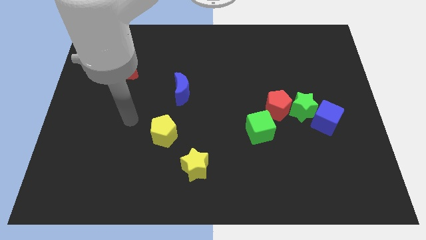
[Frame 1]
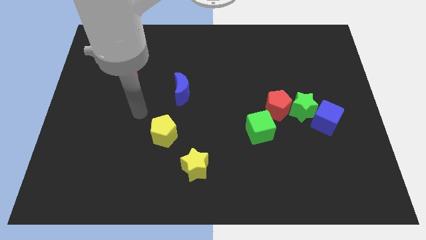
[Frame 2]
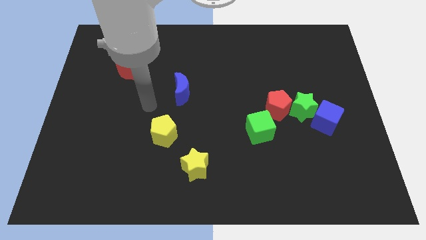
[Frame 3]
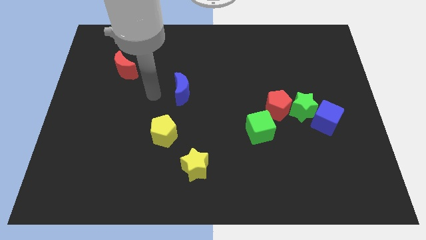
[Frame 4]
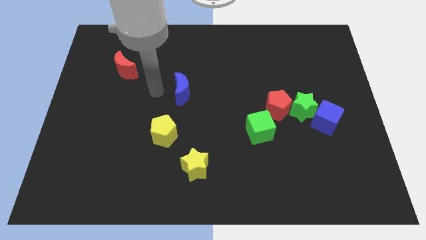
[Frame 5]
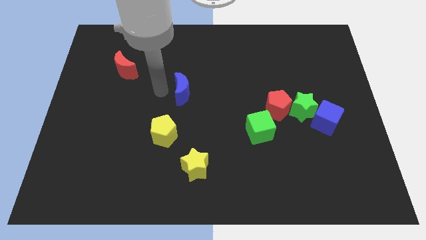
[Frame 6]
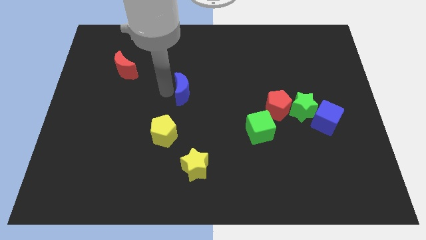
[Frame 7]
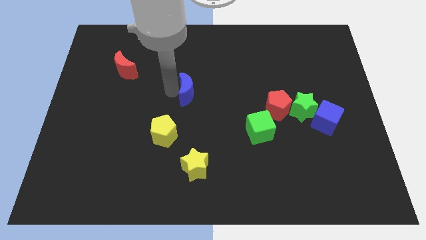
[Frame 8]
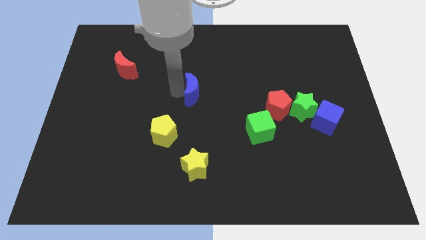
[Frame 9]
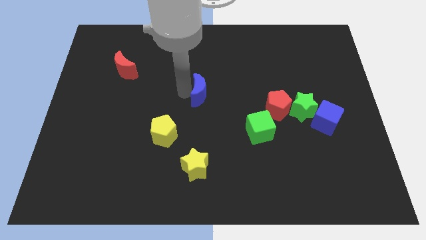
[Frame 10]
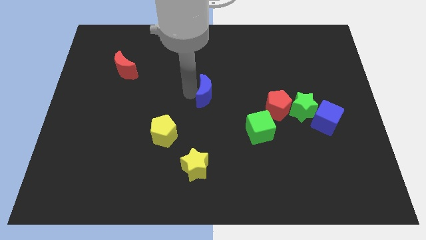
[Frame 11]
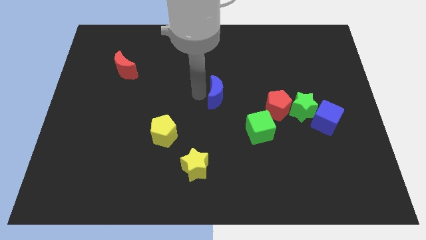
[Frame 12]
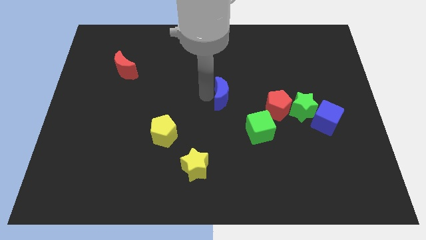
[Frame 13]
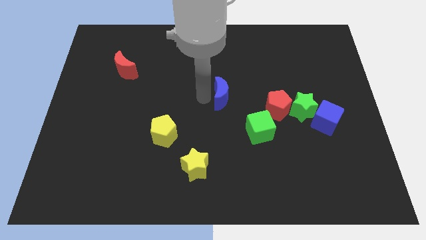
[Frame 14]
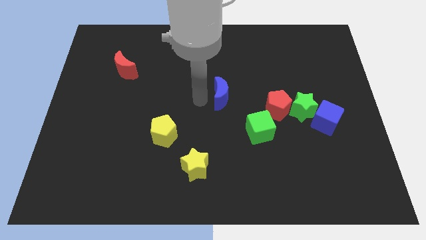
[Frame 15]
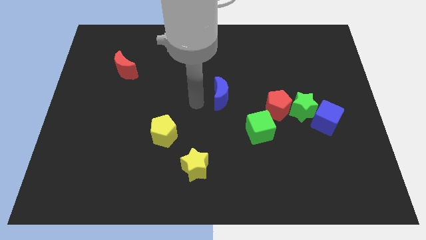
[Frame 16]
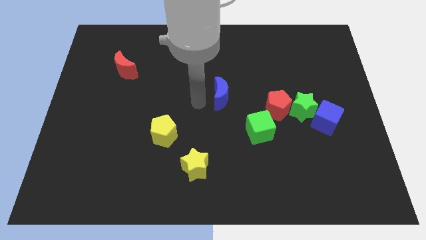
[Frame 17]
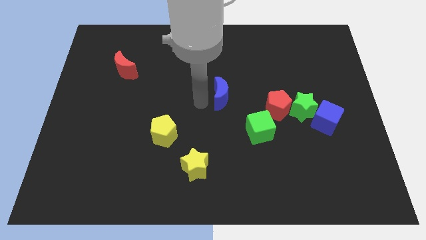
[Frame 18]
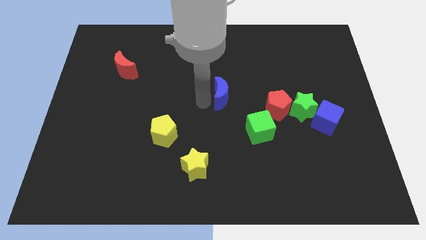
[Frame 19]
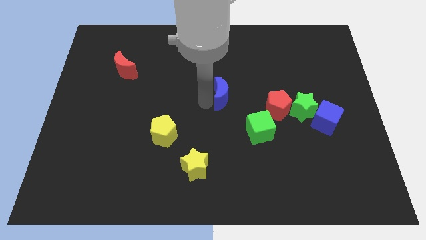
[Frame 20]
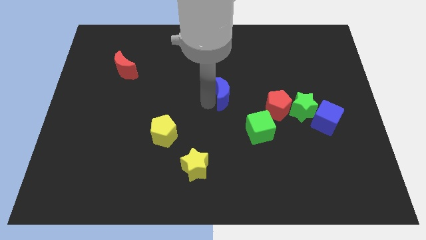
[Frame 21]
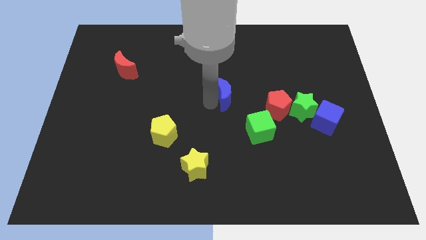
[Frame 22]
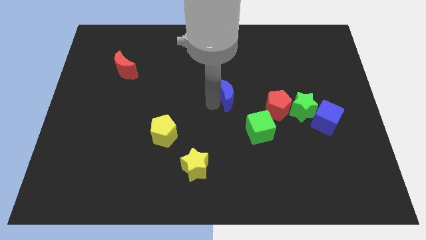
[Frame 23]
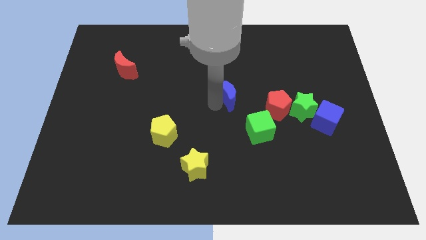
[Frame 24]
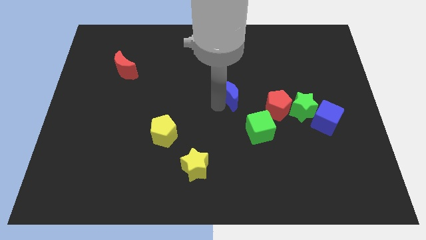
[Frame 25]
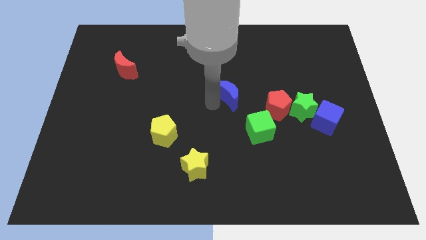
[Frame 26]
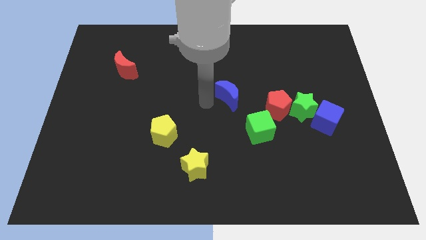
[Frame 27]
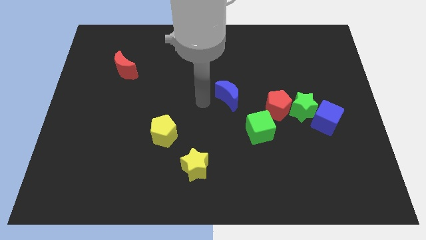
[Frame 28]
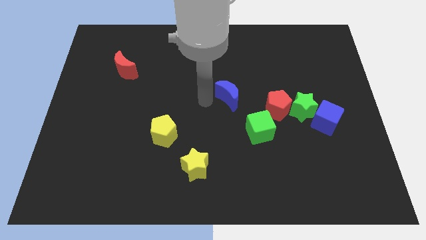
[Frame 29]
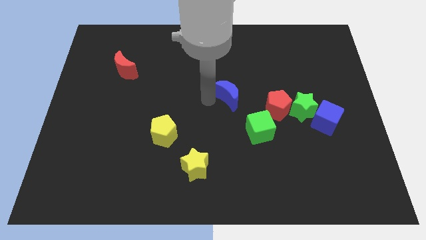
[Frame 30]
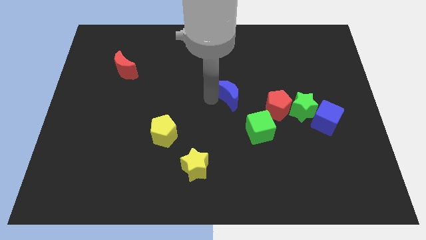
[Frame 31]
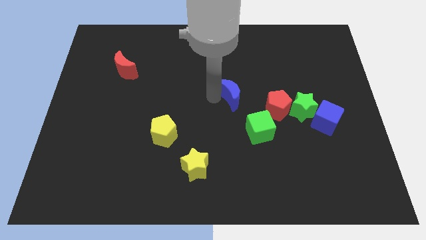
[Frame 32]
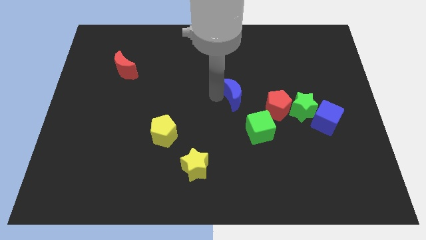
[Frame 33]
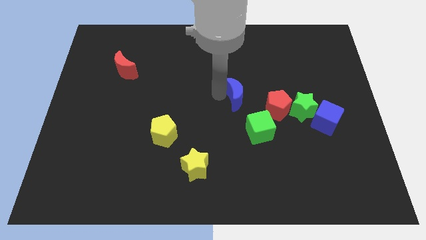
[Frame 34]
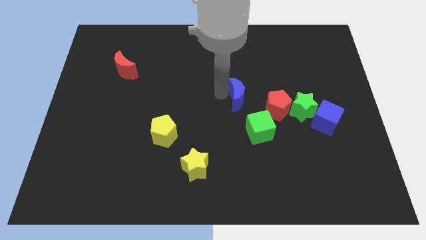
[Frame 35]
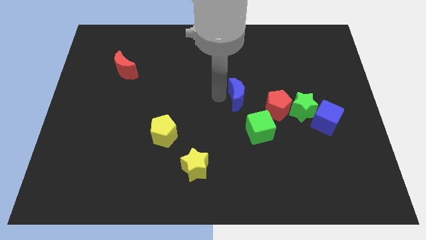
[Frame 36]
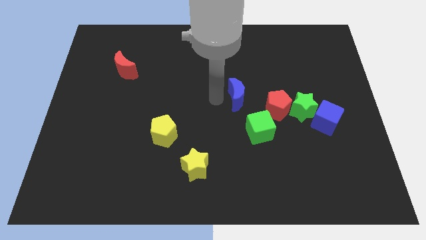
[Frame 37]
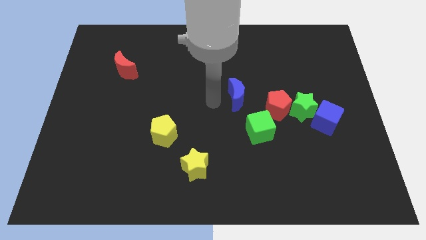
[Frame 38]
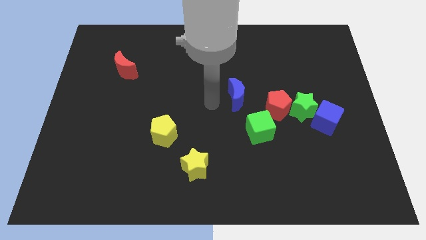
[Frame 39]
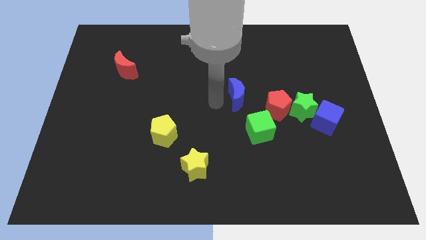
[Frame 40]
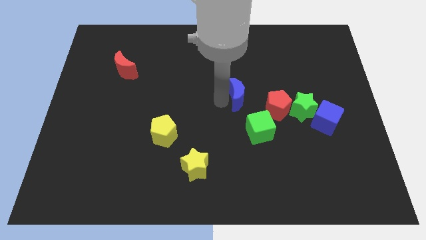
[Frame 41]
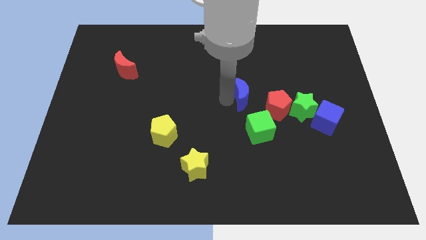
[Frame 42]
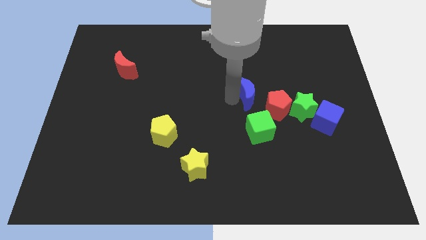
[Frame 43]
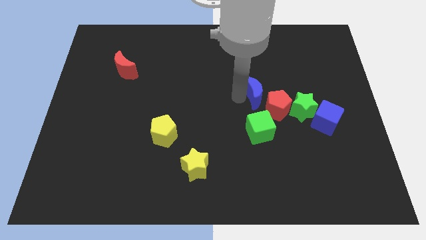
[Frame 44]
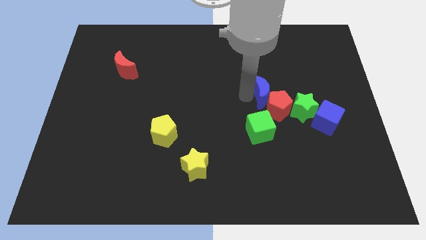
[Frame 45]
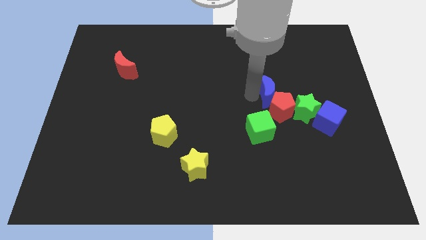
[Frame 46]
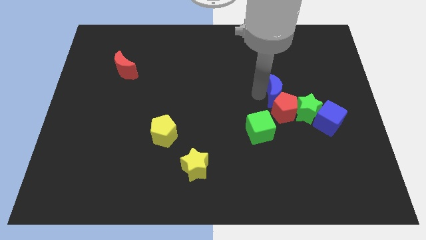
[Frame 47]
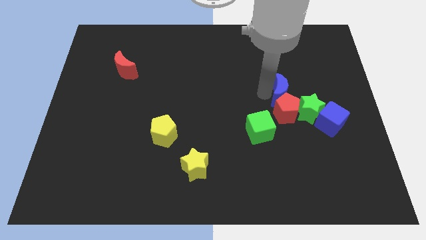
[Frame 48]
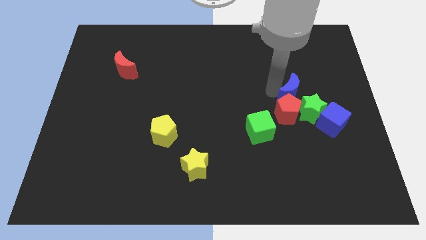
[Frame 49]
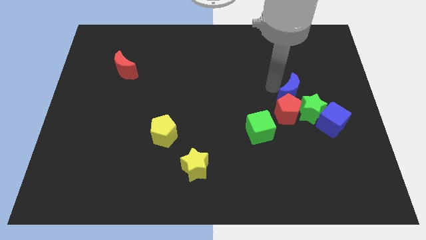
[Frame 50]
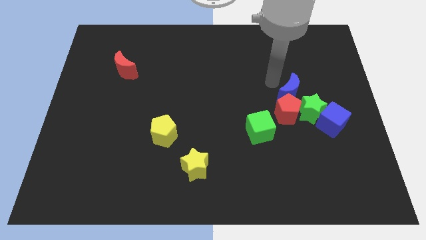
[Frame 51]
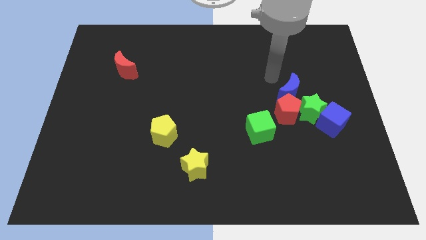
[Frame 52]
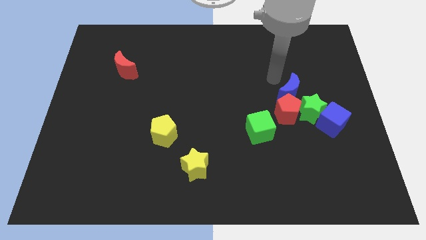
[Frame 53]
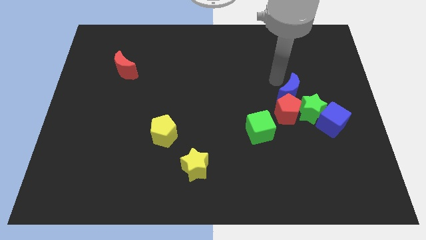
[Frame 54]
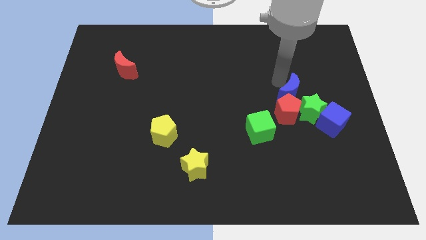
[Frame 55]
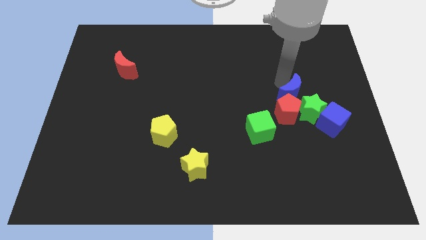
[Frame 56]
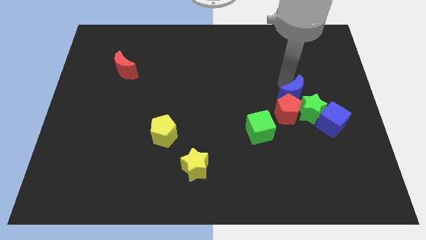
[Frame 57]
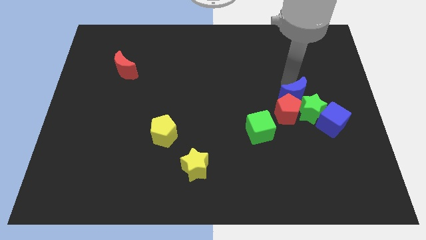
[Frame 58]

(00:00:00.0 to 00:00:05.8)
move the blue moon next to the green star

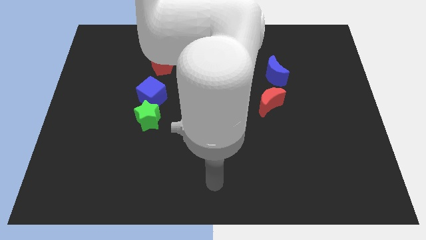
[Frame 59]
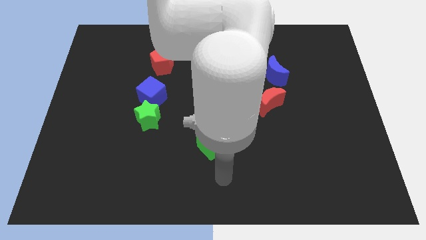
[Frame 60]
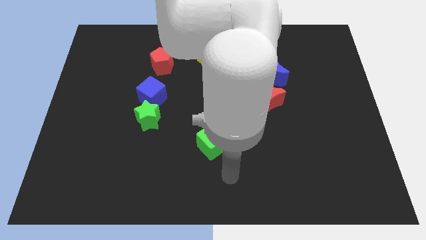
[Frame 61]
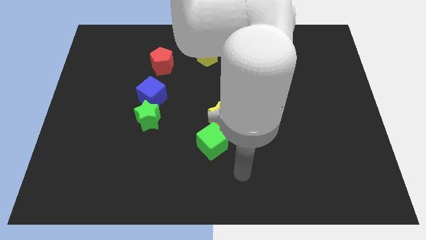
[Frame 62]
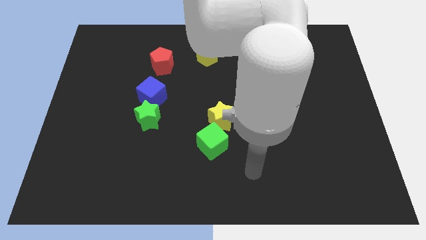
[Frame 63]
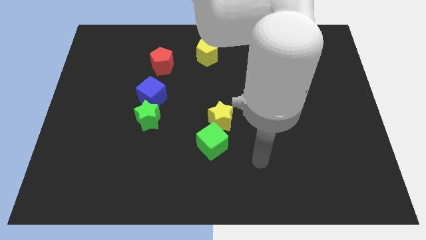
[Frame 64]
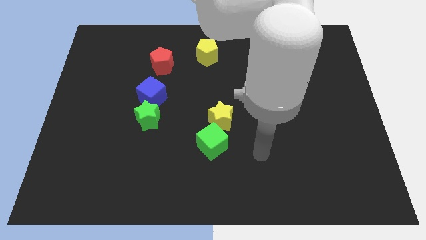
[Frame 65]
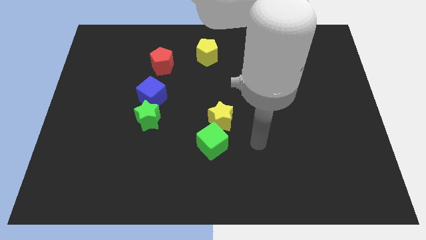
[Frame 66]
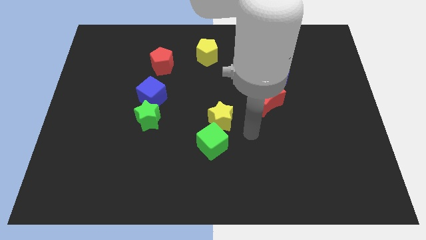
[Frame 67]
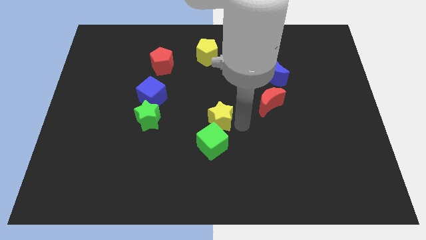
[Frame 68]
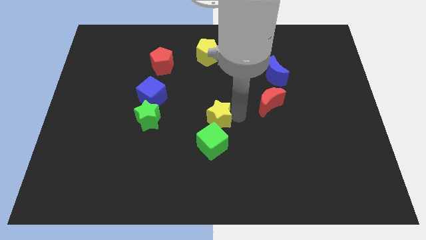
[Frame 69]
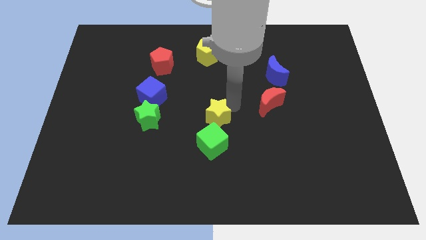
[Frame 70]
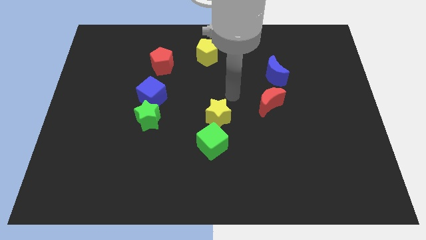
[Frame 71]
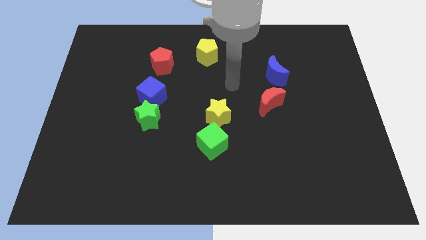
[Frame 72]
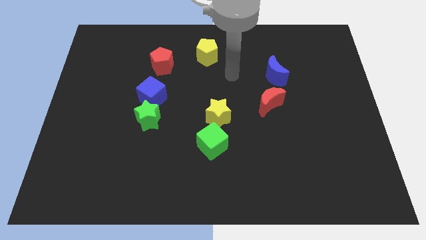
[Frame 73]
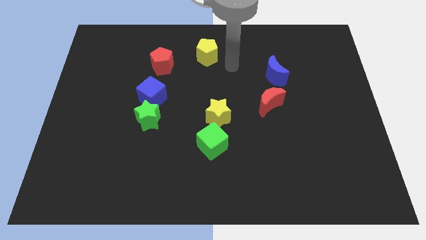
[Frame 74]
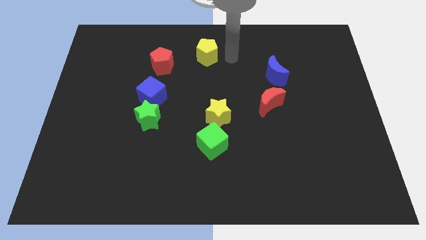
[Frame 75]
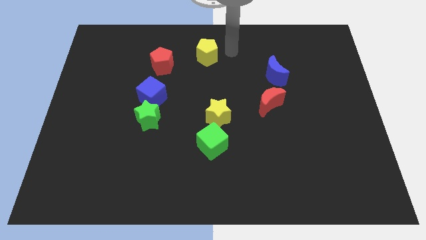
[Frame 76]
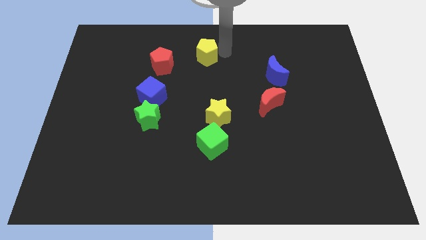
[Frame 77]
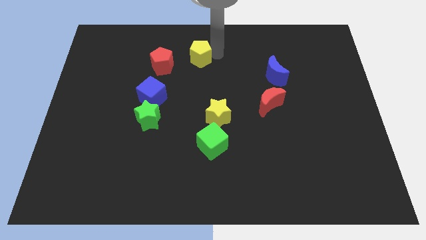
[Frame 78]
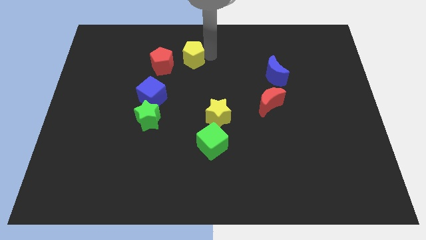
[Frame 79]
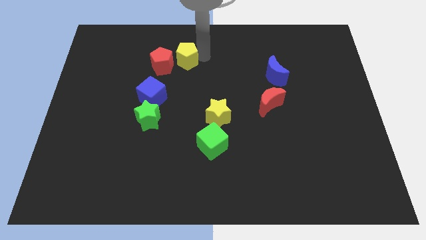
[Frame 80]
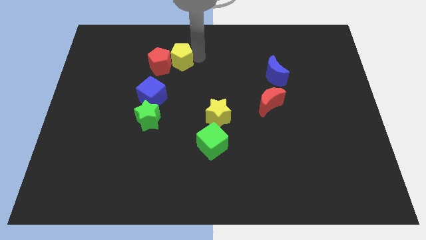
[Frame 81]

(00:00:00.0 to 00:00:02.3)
put the yellow pentagon close to the red pentagon
